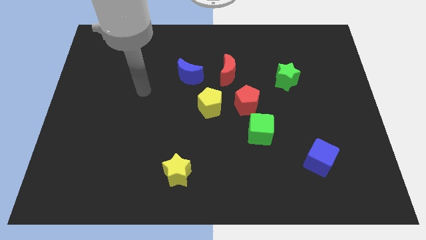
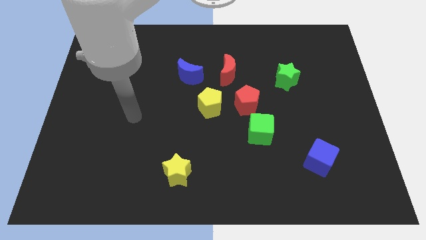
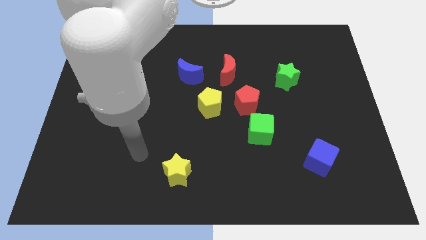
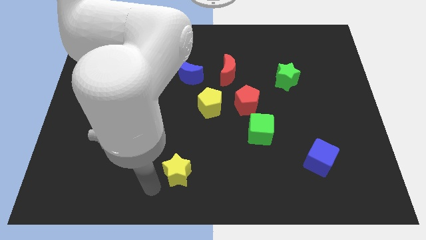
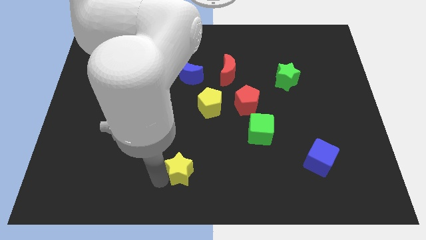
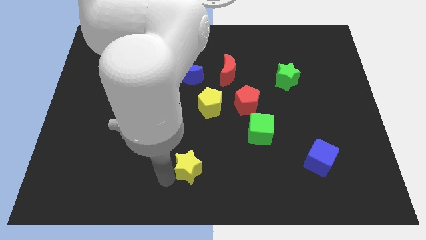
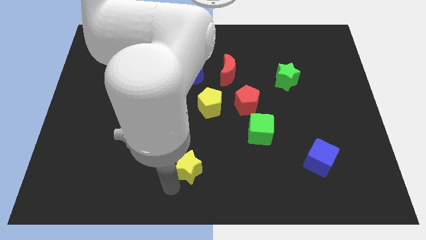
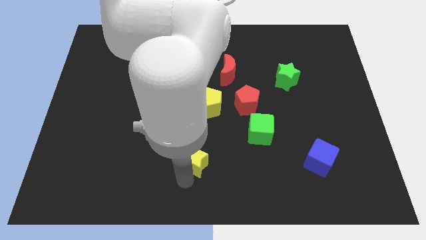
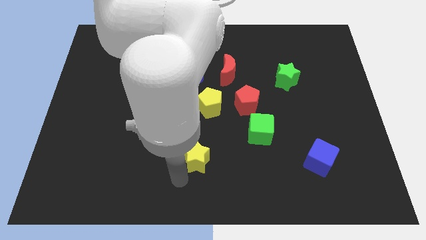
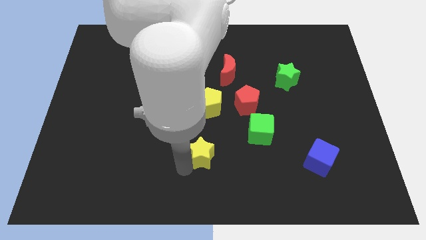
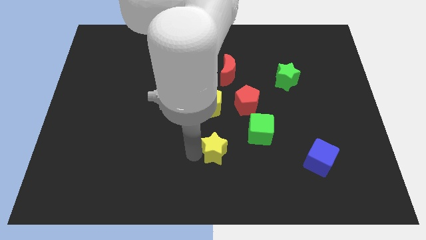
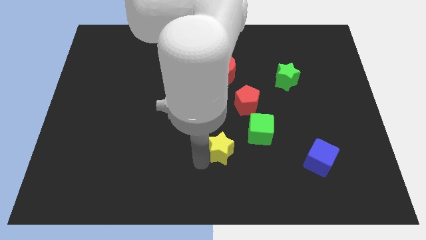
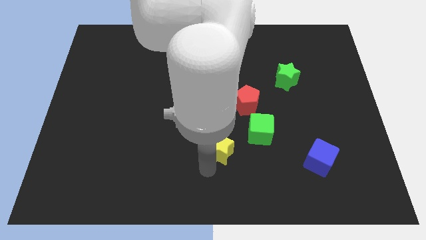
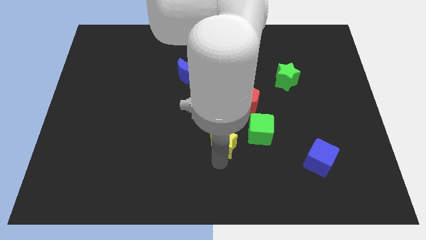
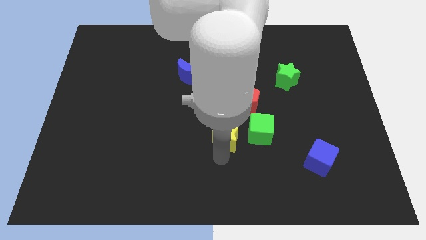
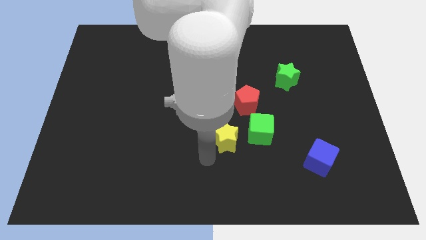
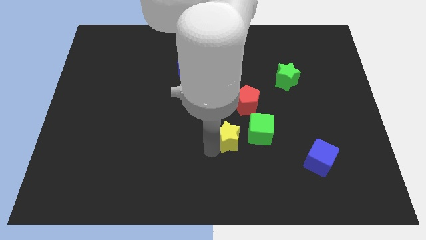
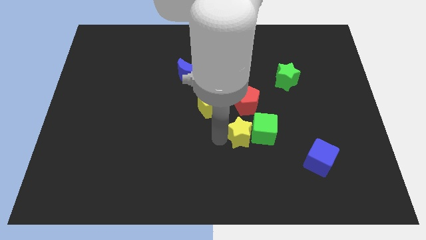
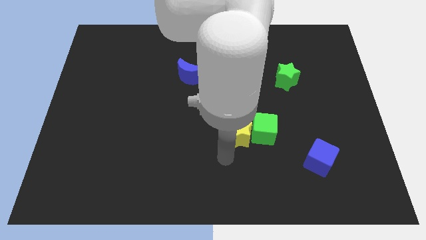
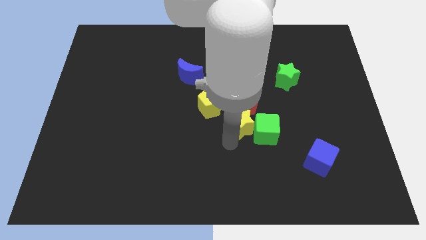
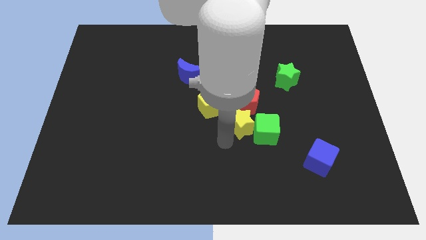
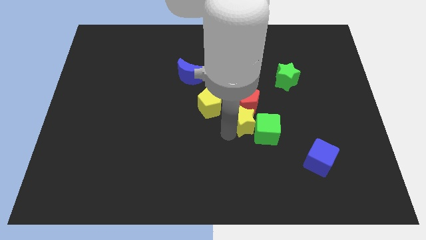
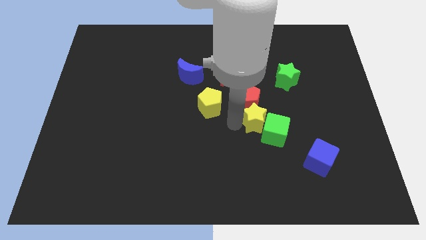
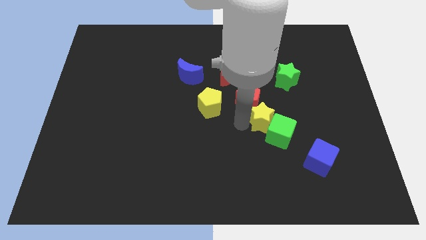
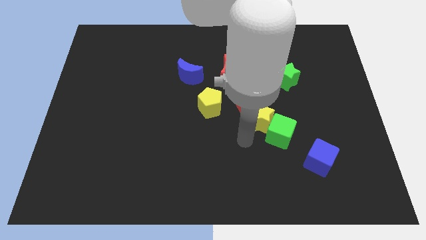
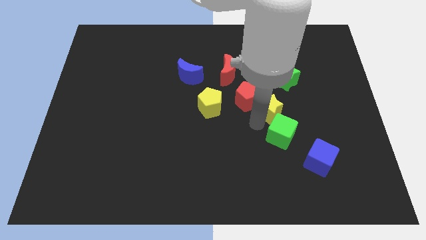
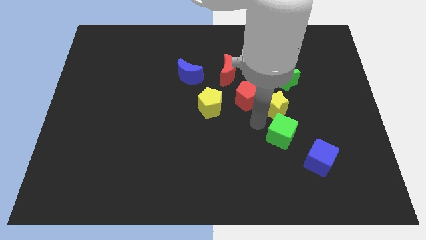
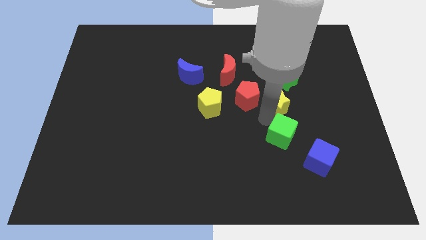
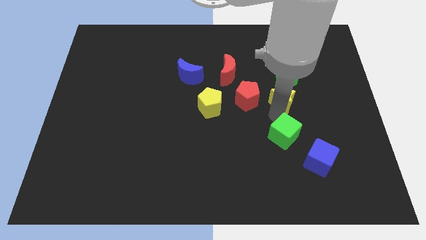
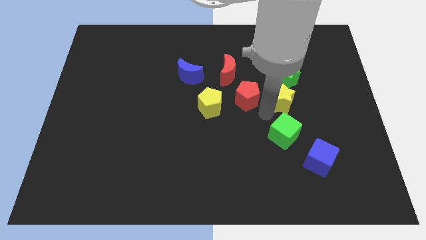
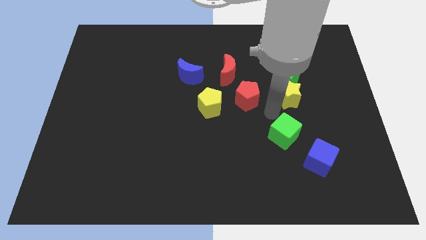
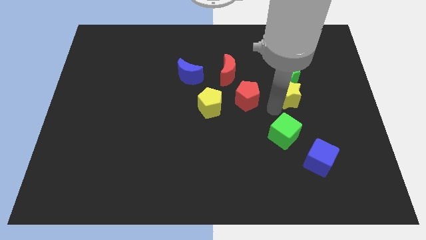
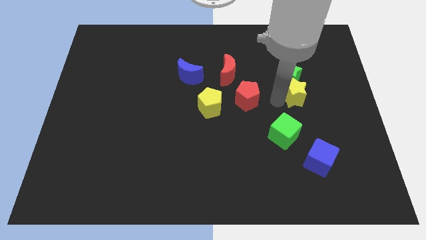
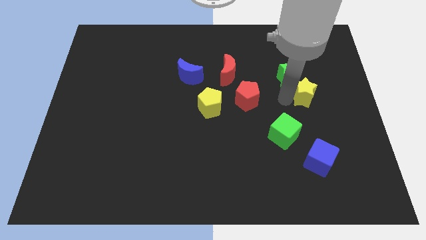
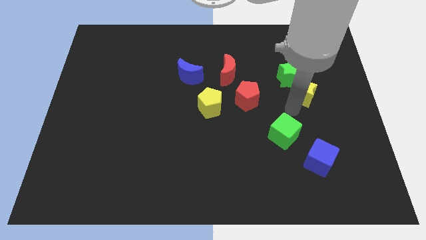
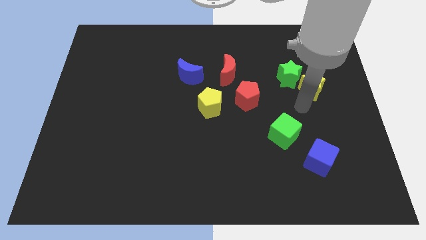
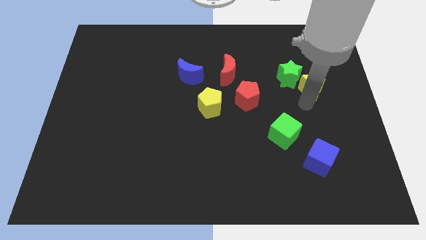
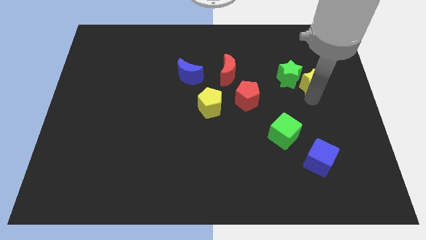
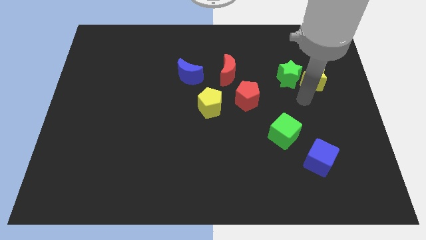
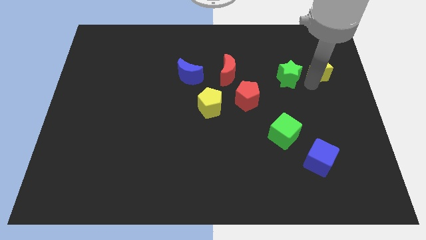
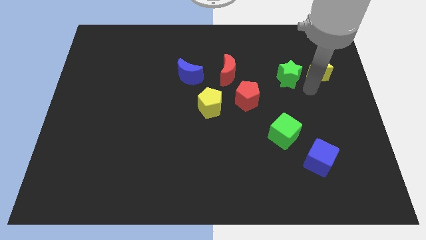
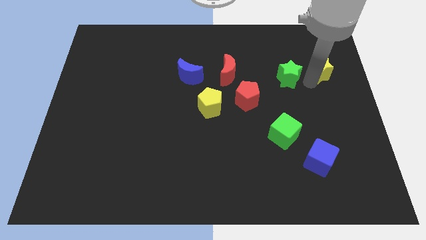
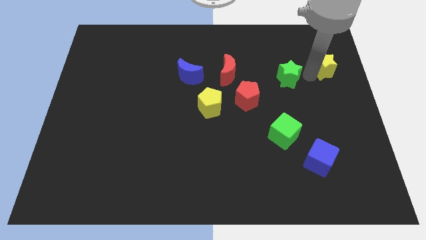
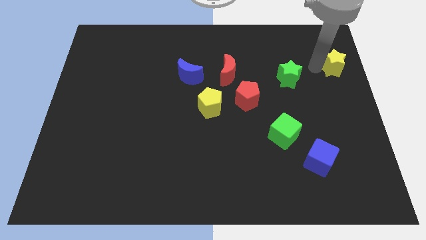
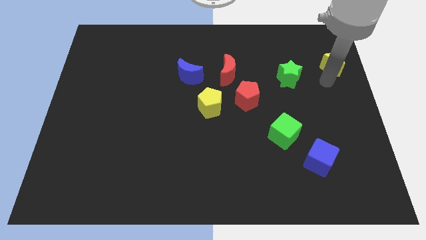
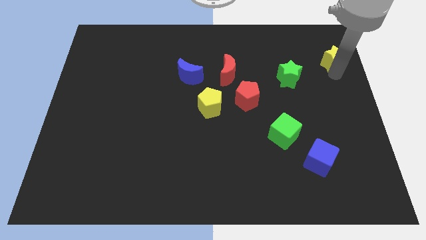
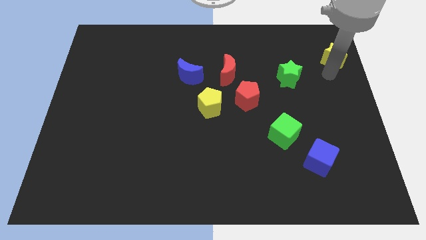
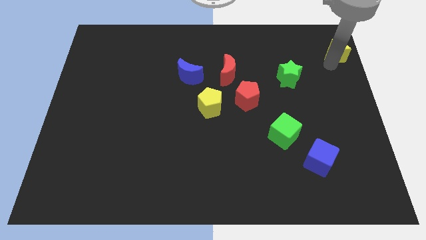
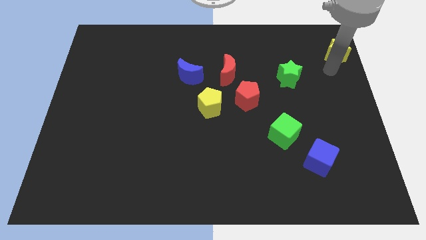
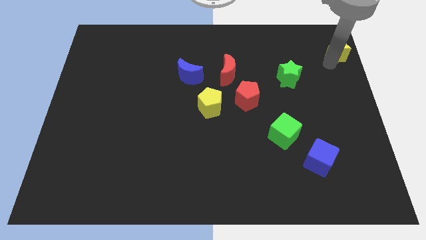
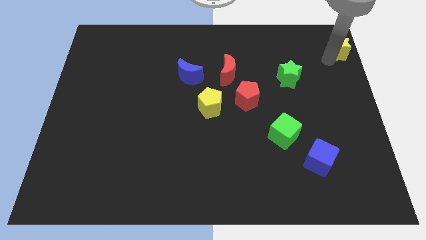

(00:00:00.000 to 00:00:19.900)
push the yellow star to the top right corner

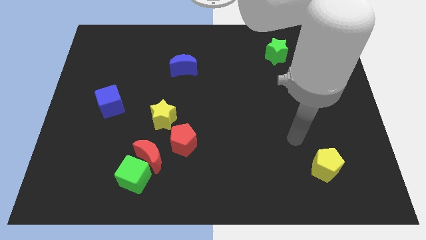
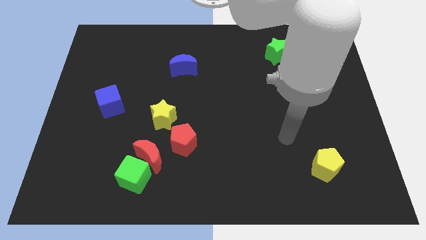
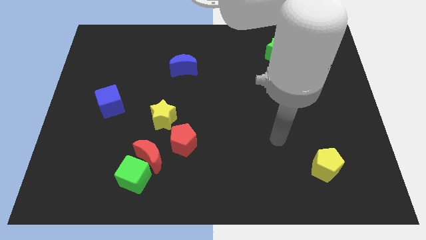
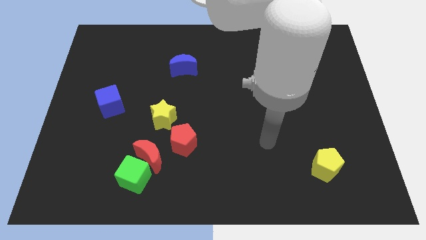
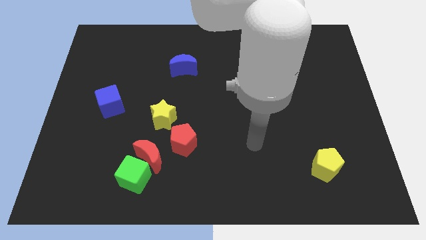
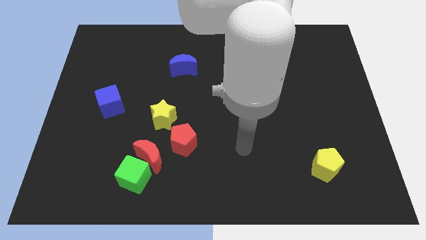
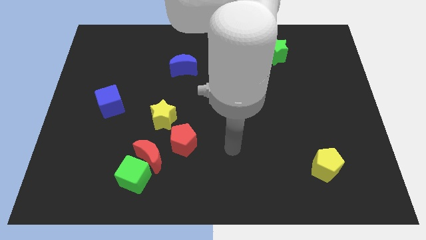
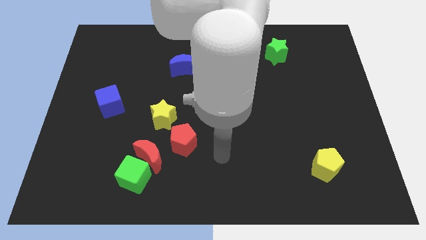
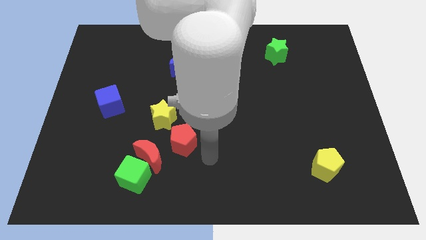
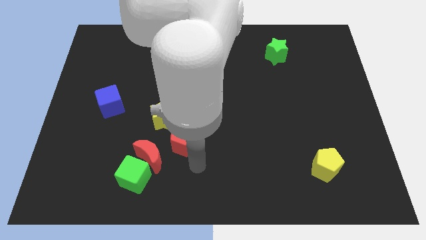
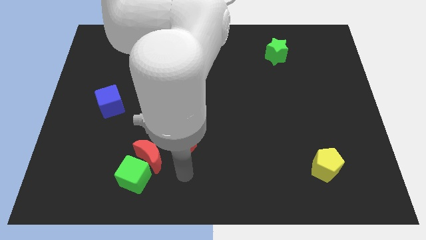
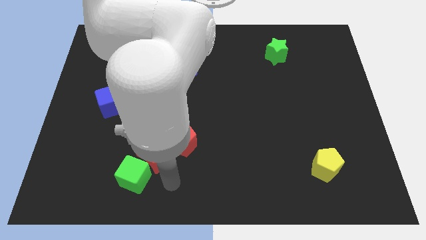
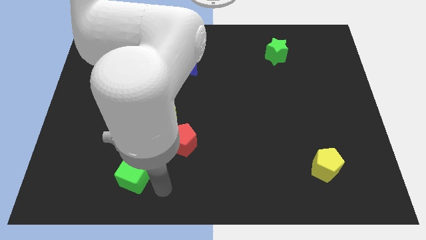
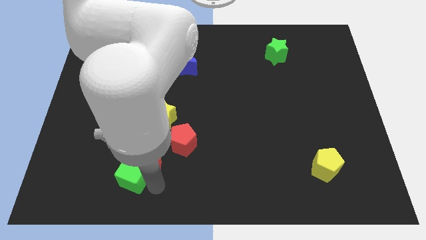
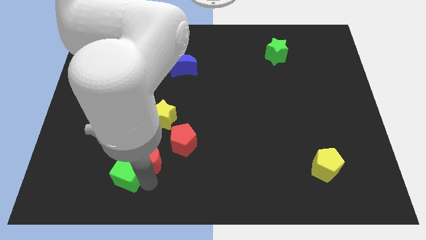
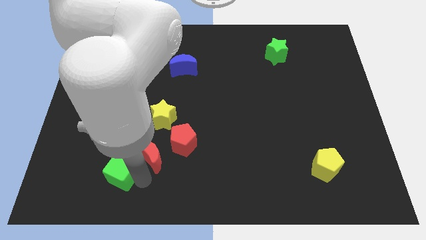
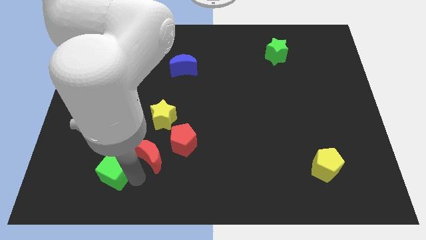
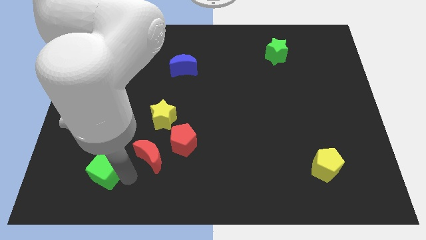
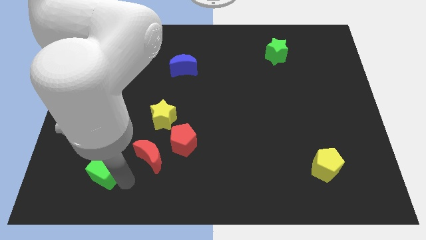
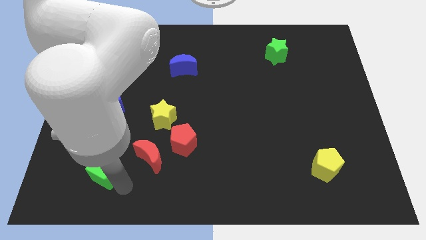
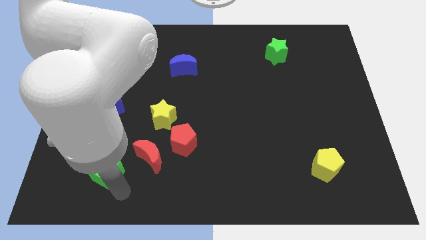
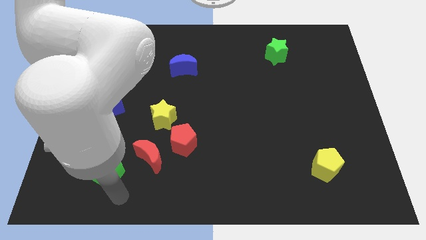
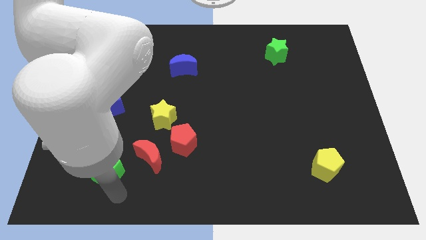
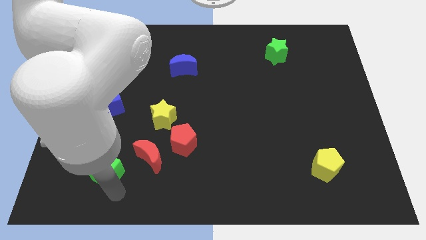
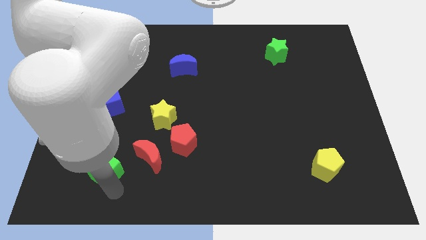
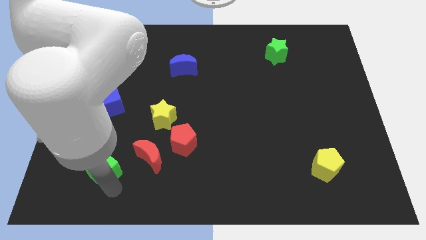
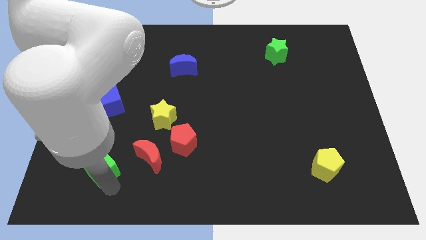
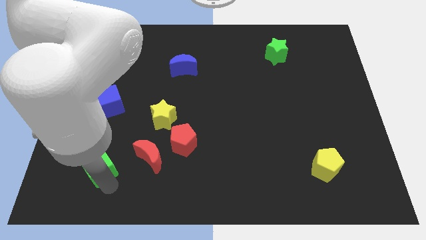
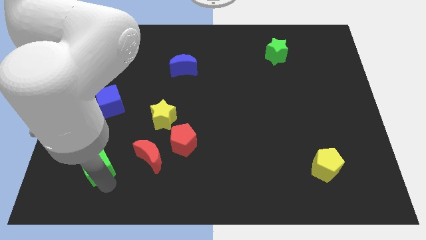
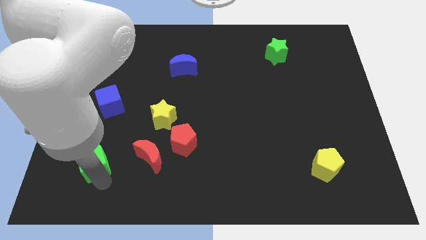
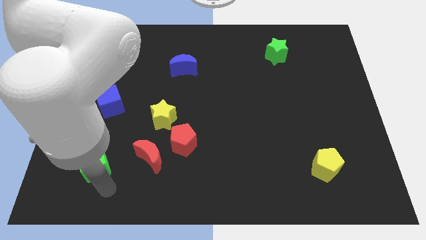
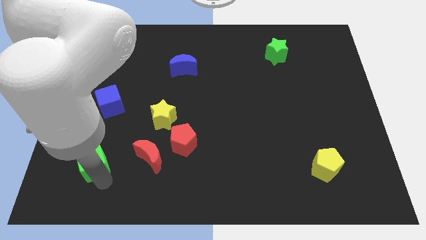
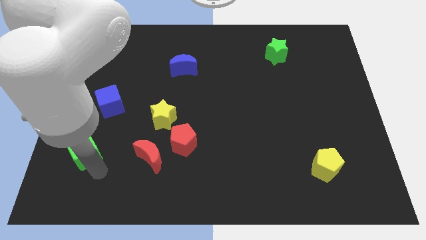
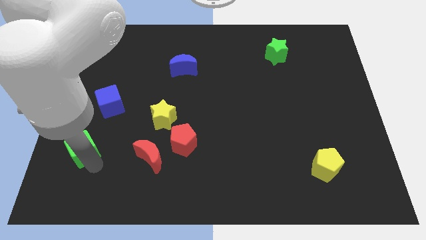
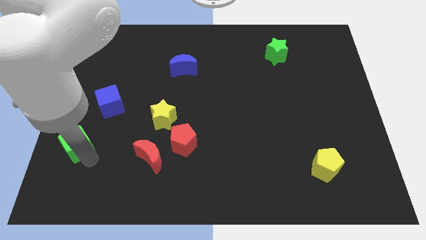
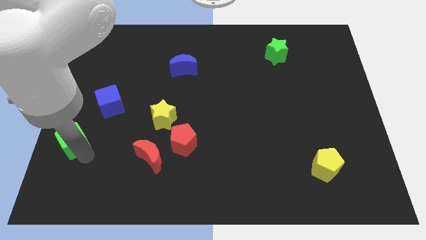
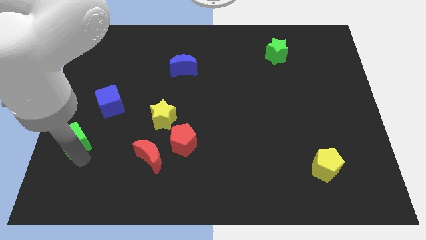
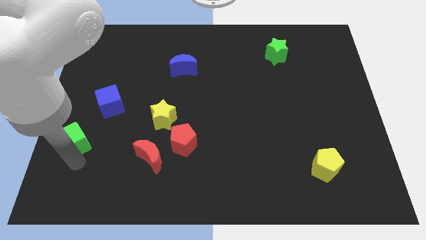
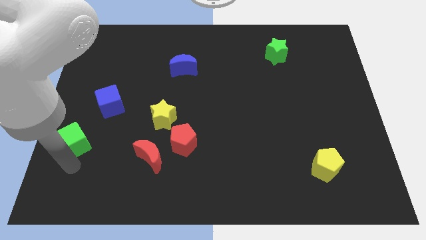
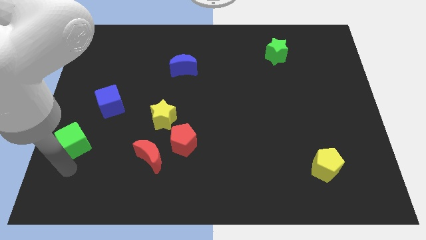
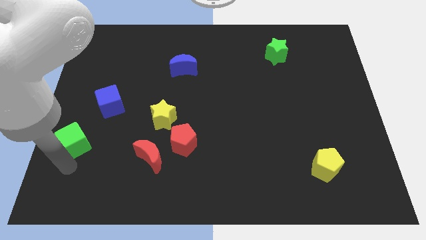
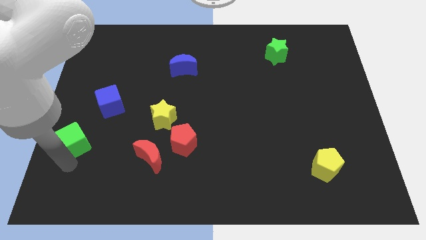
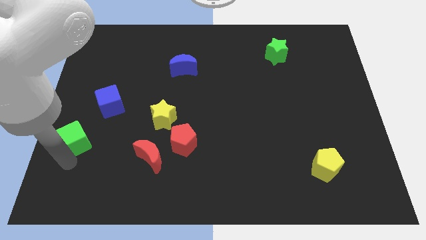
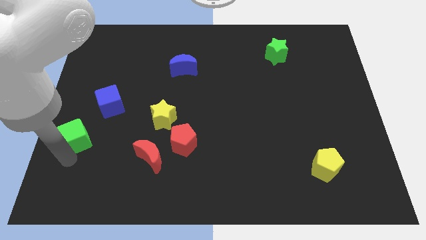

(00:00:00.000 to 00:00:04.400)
slide the green cube to the left side of the board
